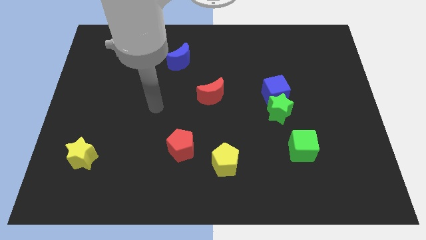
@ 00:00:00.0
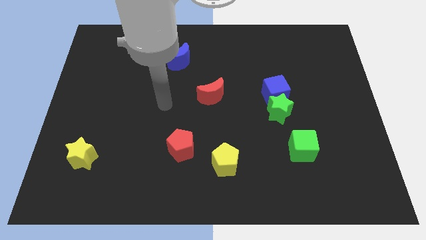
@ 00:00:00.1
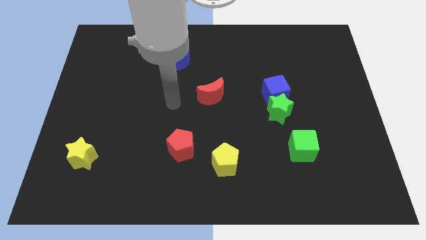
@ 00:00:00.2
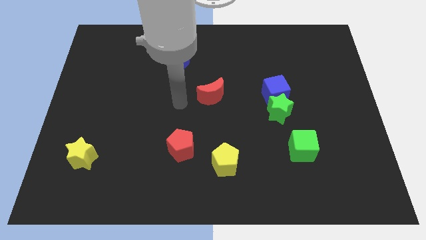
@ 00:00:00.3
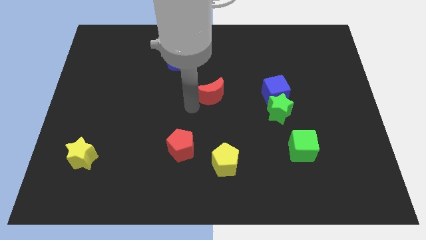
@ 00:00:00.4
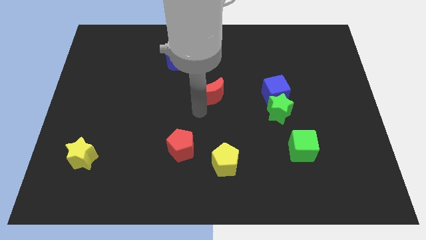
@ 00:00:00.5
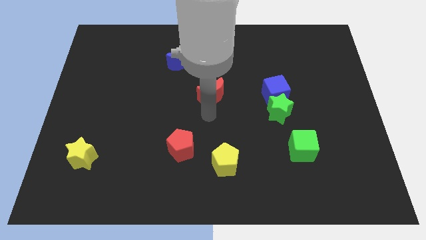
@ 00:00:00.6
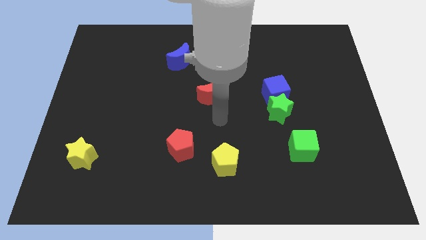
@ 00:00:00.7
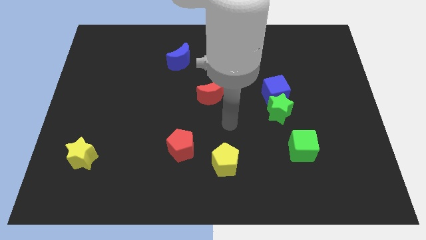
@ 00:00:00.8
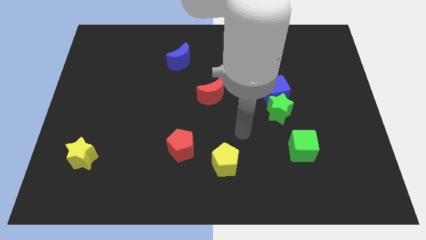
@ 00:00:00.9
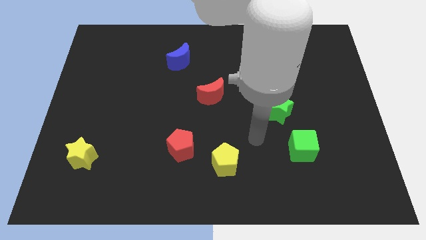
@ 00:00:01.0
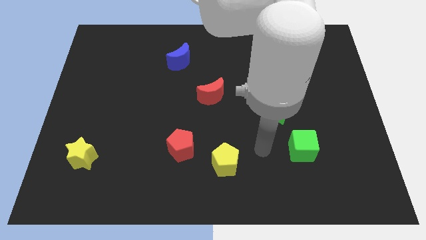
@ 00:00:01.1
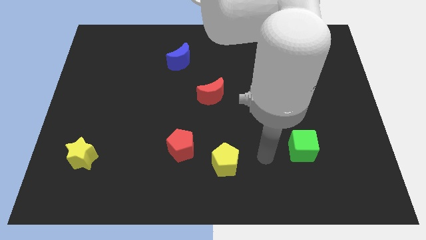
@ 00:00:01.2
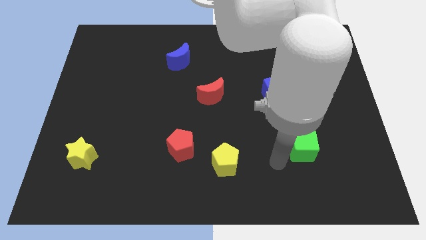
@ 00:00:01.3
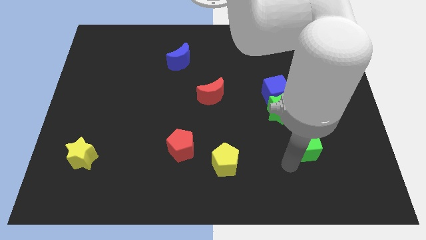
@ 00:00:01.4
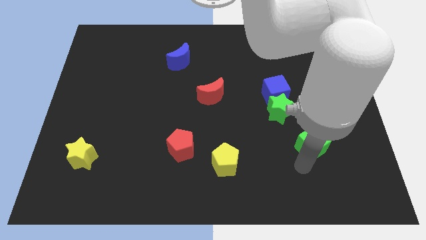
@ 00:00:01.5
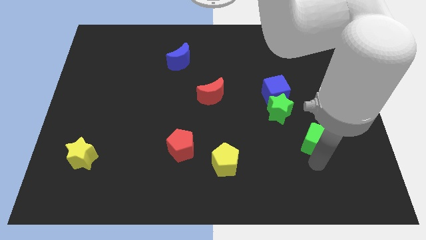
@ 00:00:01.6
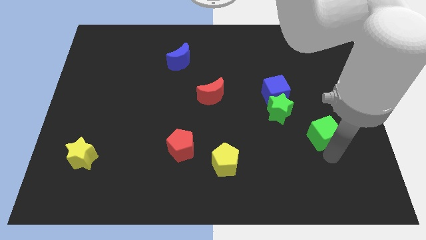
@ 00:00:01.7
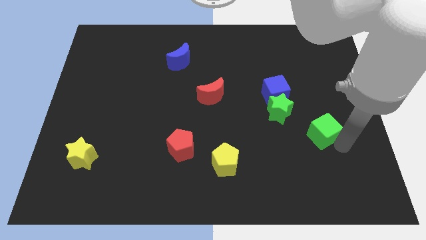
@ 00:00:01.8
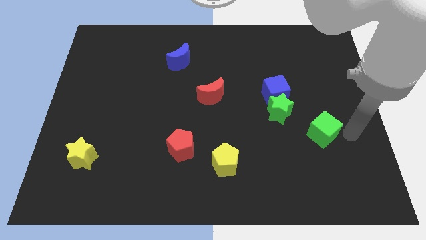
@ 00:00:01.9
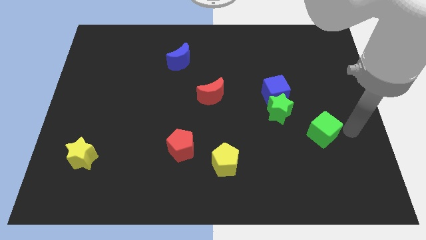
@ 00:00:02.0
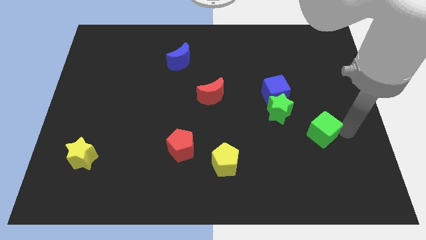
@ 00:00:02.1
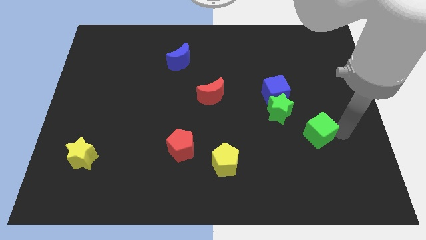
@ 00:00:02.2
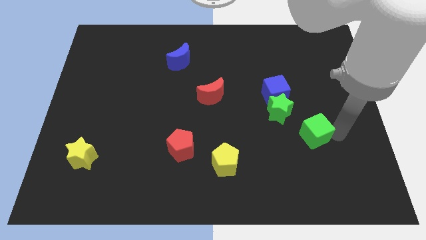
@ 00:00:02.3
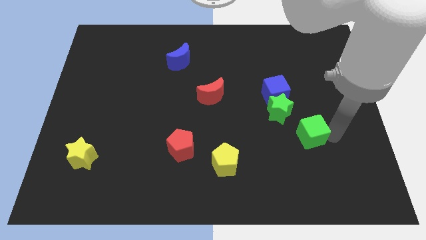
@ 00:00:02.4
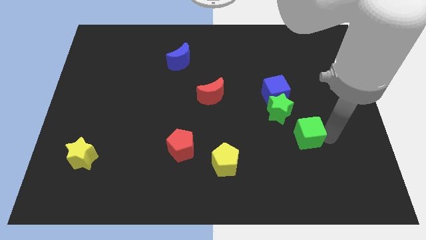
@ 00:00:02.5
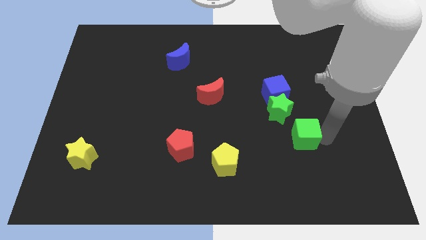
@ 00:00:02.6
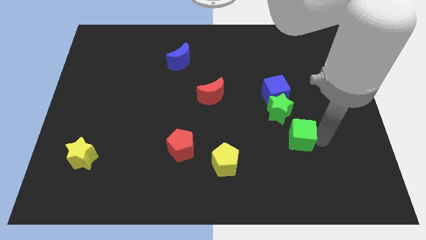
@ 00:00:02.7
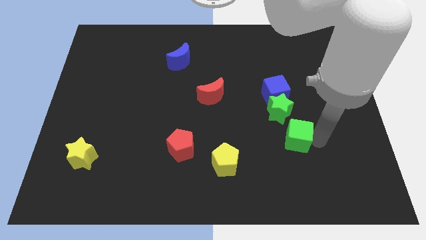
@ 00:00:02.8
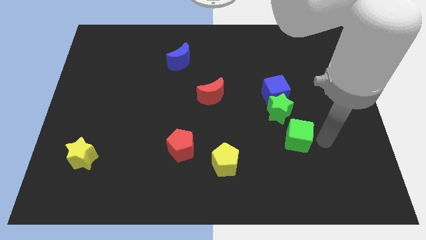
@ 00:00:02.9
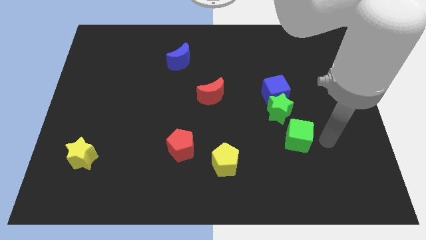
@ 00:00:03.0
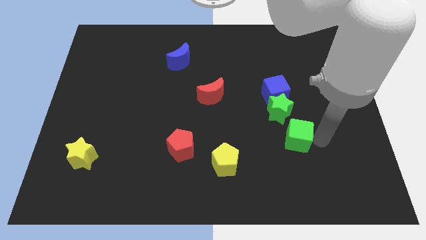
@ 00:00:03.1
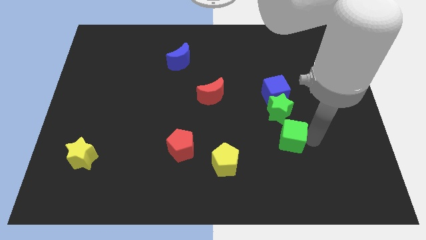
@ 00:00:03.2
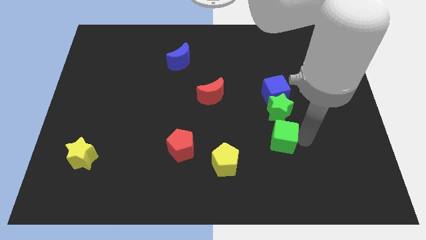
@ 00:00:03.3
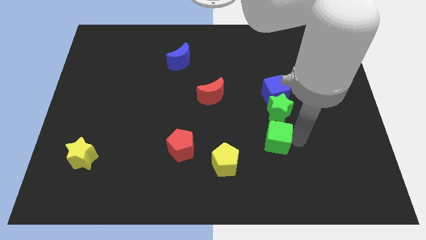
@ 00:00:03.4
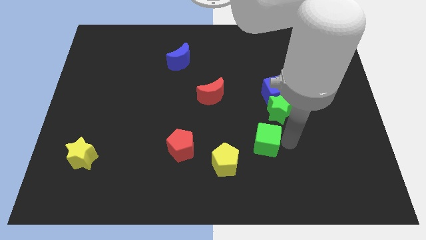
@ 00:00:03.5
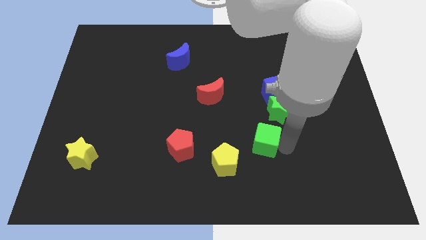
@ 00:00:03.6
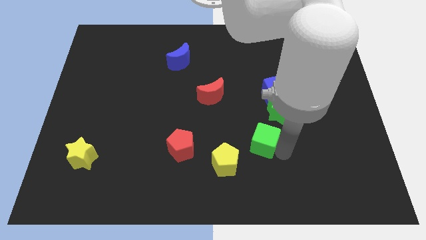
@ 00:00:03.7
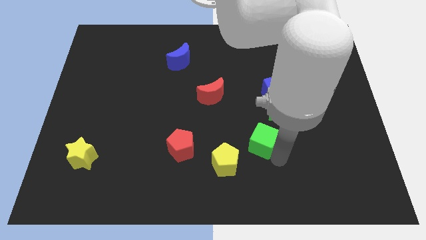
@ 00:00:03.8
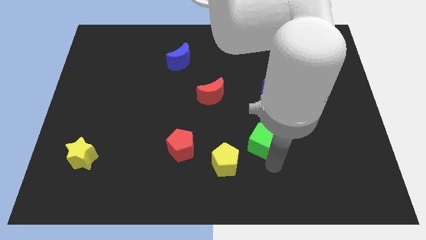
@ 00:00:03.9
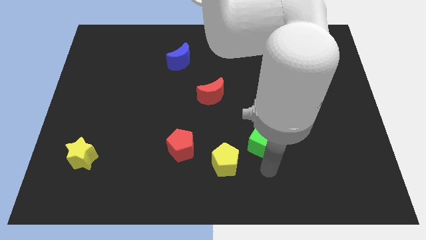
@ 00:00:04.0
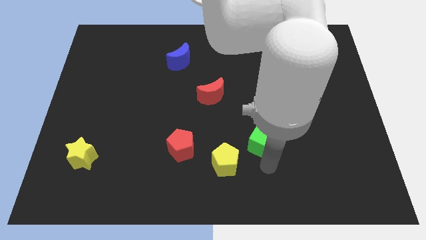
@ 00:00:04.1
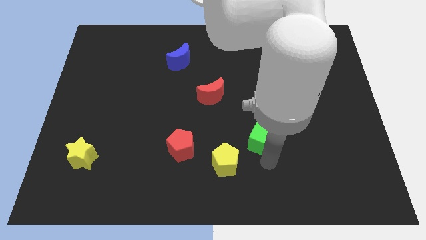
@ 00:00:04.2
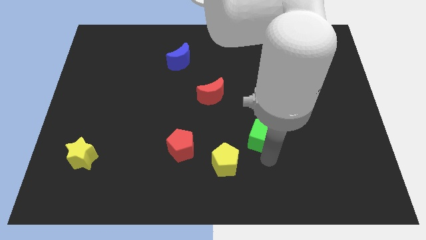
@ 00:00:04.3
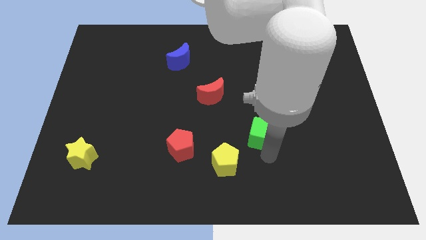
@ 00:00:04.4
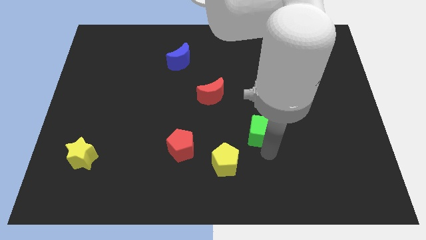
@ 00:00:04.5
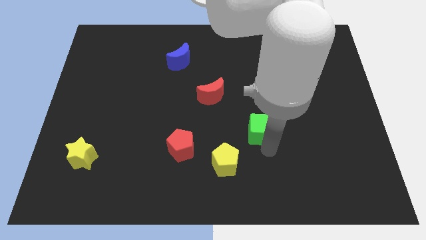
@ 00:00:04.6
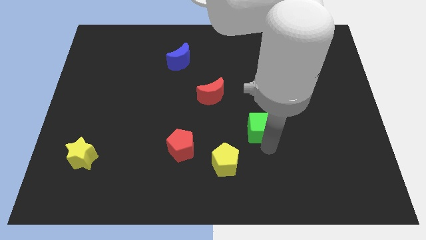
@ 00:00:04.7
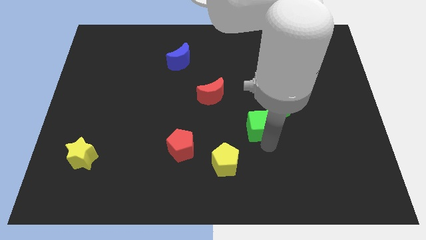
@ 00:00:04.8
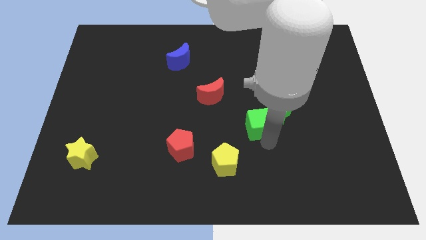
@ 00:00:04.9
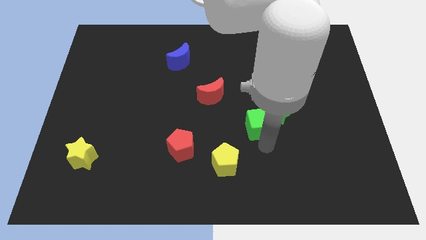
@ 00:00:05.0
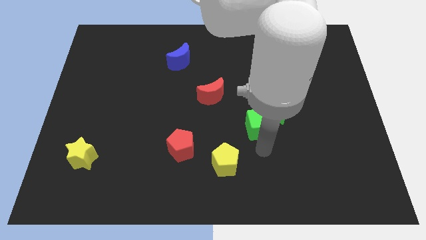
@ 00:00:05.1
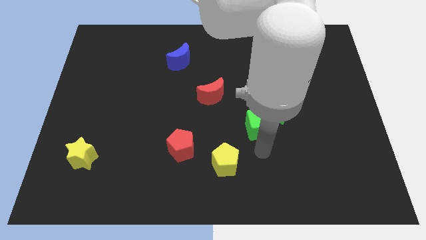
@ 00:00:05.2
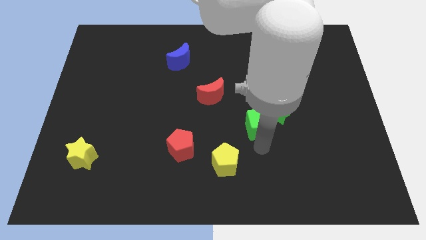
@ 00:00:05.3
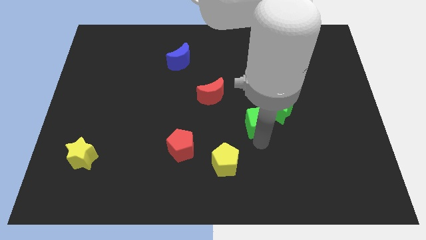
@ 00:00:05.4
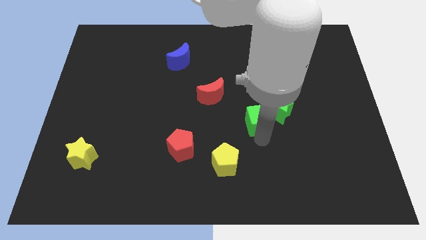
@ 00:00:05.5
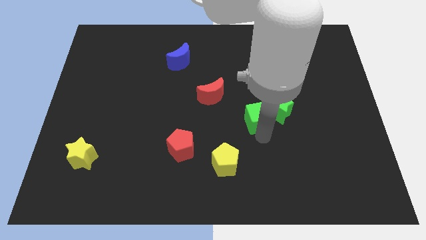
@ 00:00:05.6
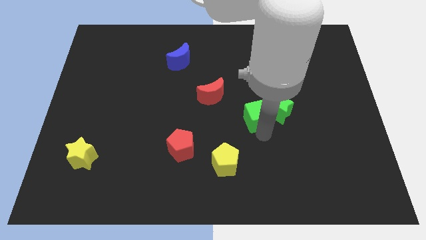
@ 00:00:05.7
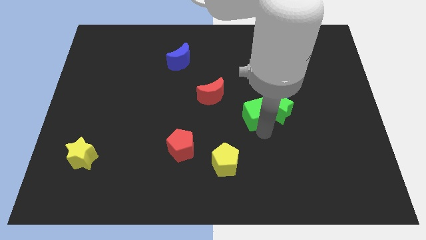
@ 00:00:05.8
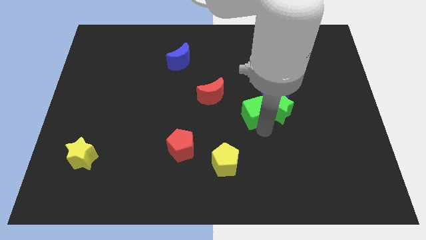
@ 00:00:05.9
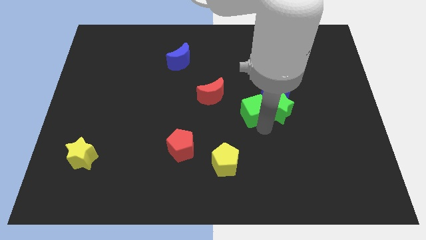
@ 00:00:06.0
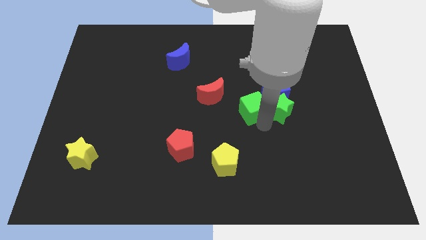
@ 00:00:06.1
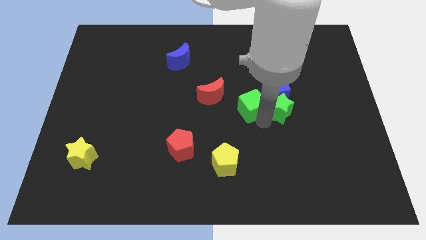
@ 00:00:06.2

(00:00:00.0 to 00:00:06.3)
put the green cube to the left of the blue cube

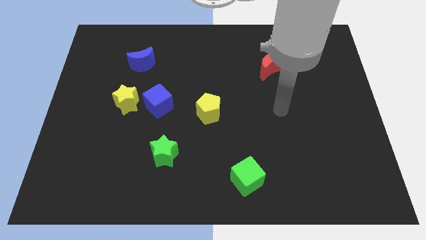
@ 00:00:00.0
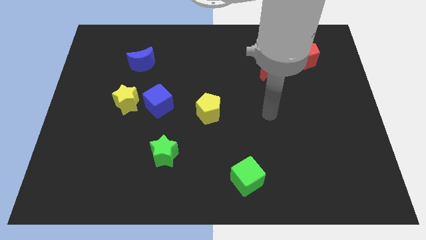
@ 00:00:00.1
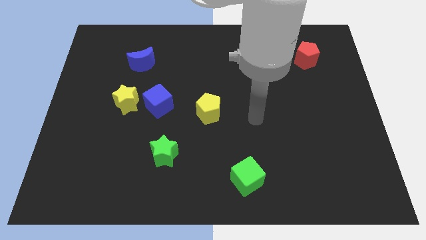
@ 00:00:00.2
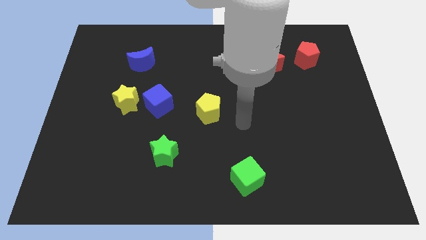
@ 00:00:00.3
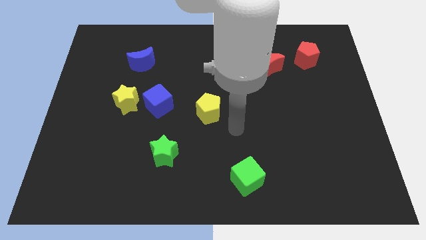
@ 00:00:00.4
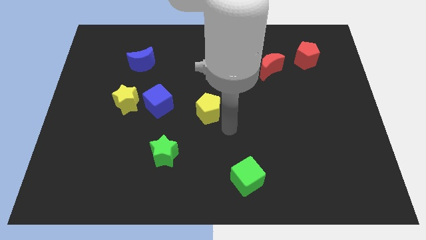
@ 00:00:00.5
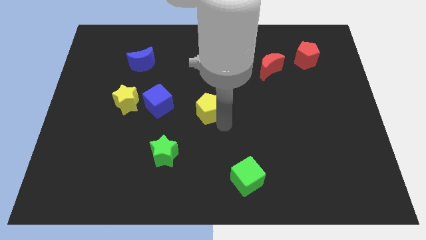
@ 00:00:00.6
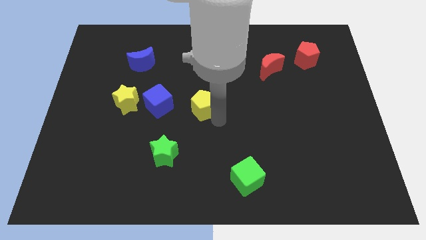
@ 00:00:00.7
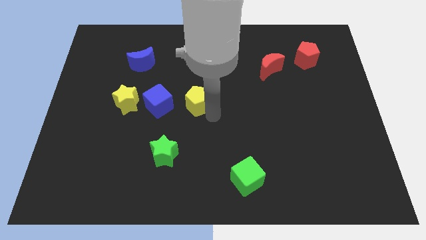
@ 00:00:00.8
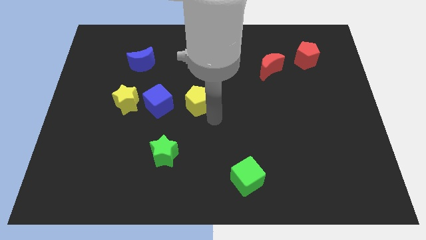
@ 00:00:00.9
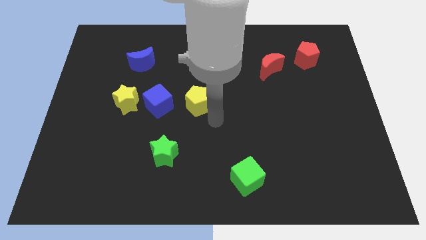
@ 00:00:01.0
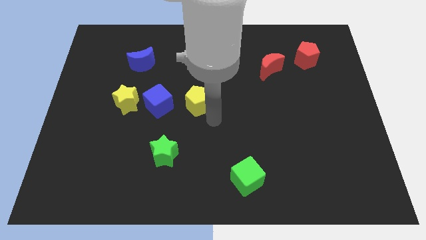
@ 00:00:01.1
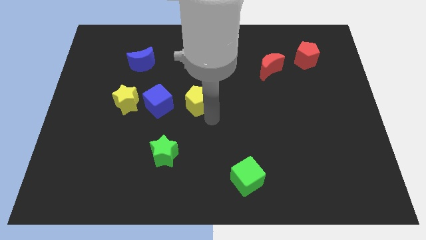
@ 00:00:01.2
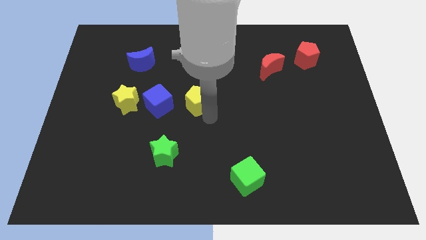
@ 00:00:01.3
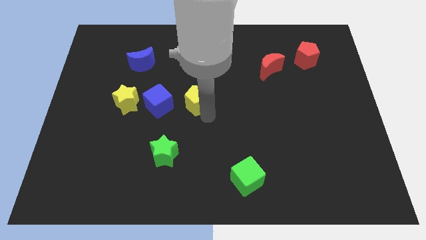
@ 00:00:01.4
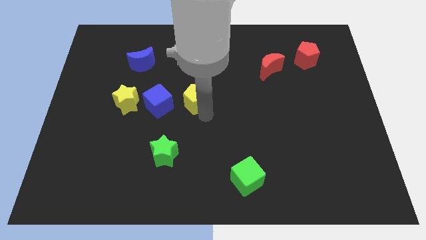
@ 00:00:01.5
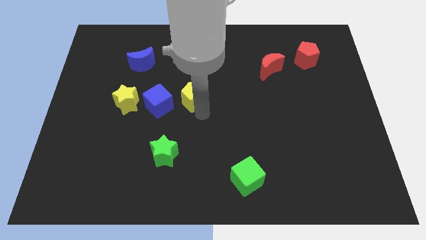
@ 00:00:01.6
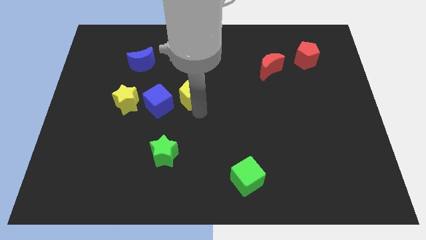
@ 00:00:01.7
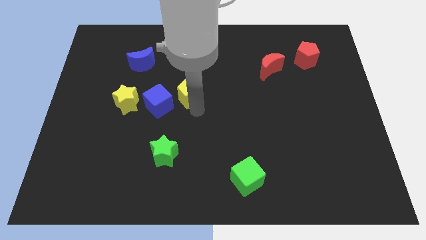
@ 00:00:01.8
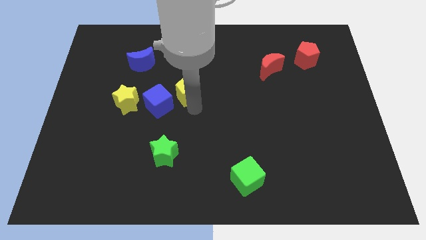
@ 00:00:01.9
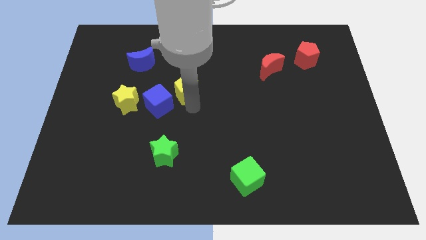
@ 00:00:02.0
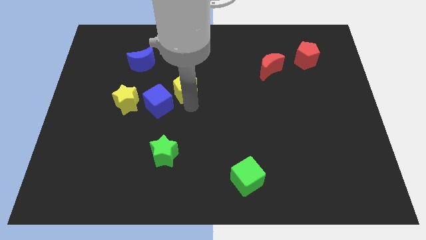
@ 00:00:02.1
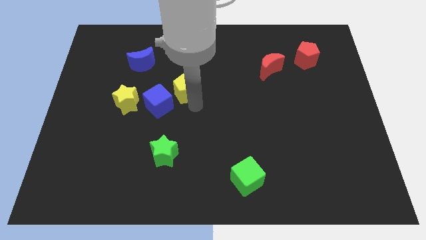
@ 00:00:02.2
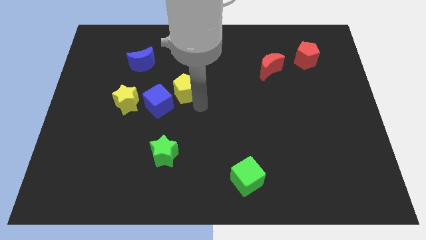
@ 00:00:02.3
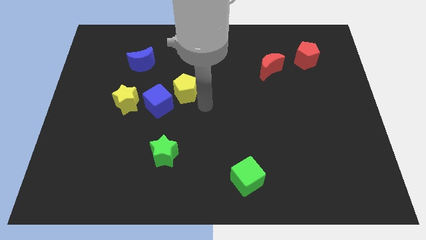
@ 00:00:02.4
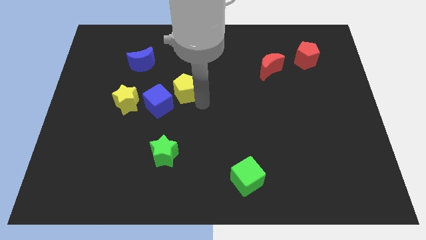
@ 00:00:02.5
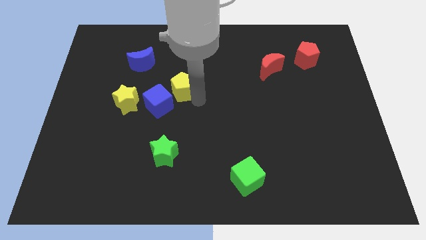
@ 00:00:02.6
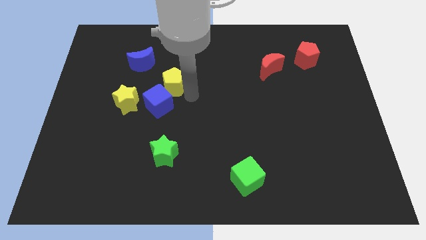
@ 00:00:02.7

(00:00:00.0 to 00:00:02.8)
push the yellow pentagon to the top of the blue cube
